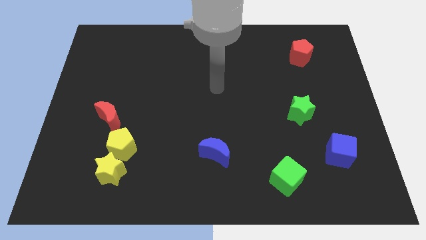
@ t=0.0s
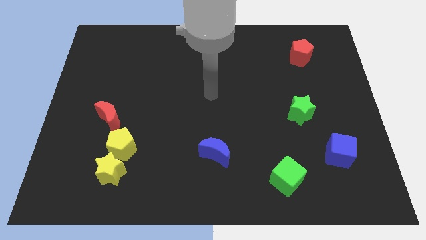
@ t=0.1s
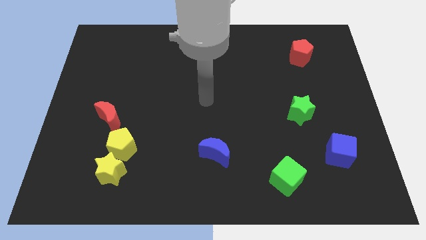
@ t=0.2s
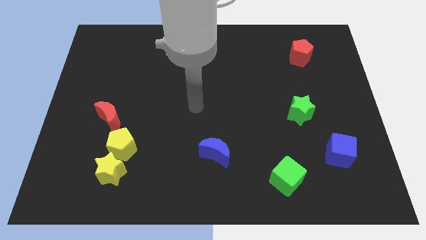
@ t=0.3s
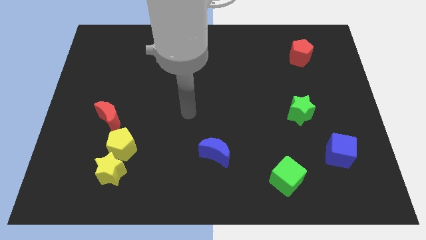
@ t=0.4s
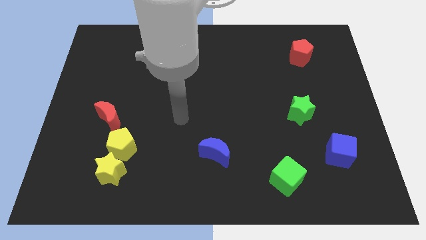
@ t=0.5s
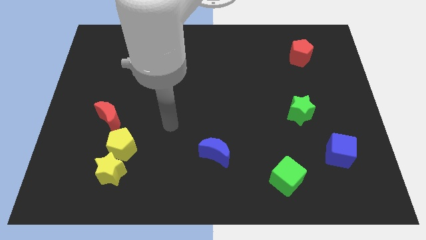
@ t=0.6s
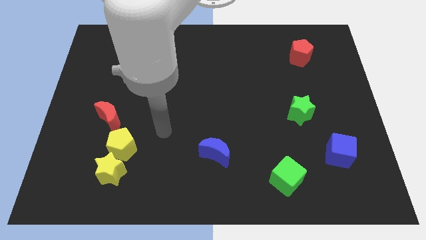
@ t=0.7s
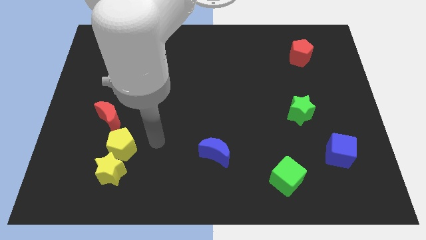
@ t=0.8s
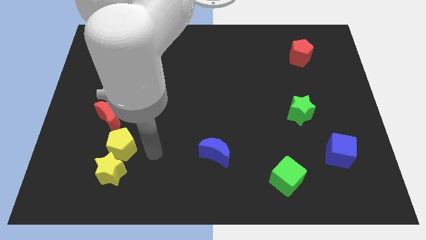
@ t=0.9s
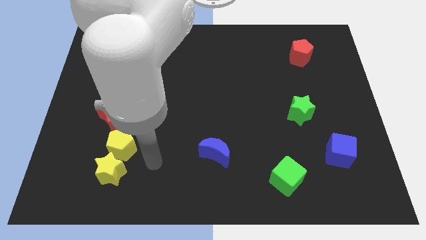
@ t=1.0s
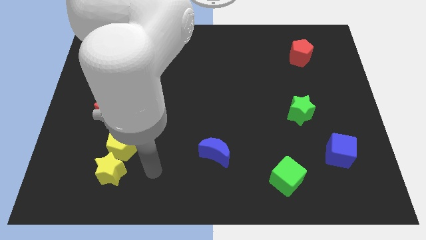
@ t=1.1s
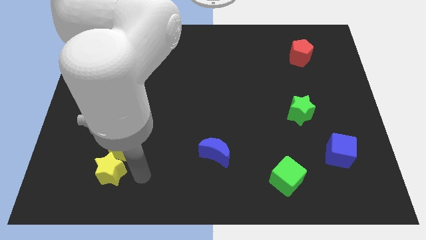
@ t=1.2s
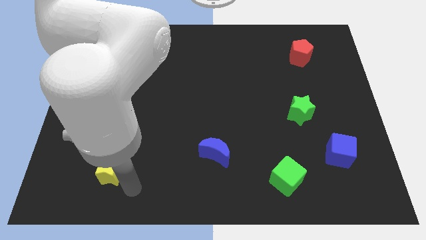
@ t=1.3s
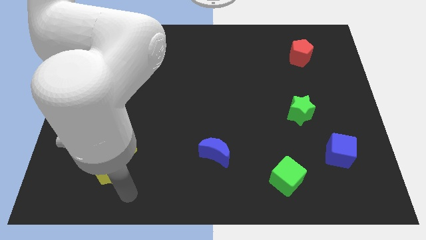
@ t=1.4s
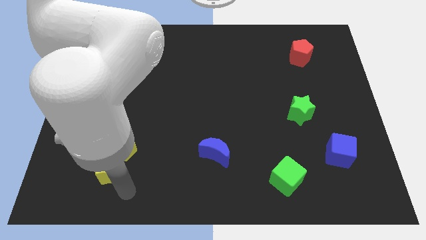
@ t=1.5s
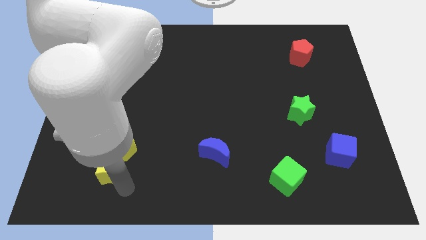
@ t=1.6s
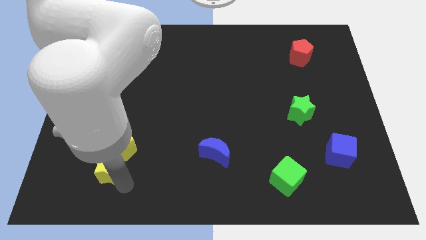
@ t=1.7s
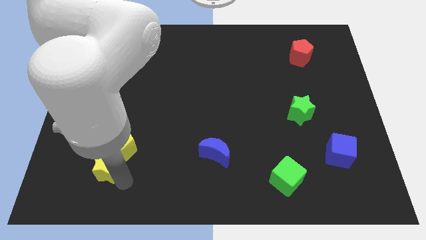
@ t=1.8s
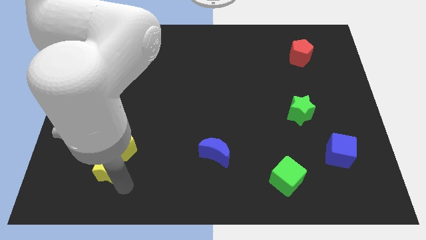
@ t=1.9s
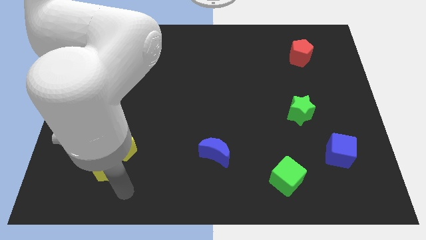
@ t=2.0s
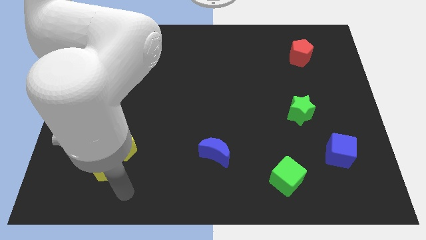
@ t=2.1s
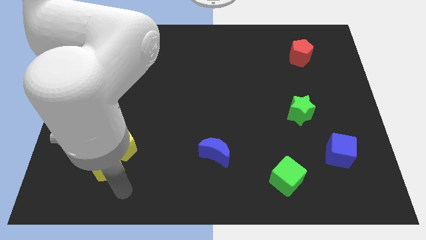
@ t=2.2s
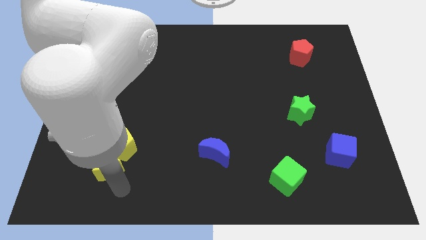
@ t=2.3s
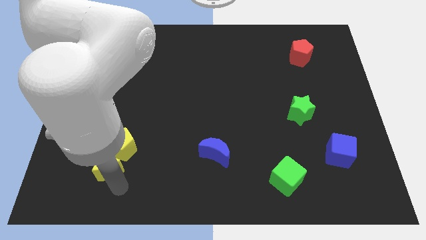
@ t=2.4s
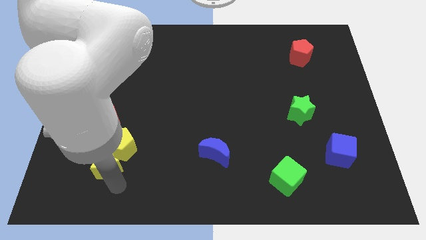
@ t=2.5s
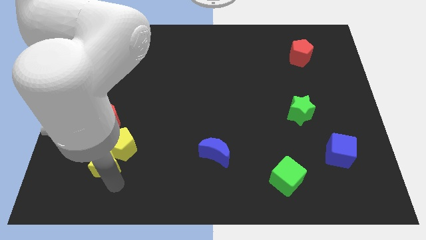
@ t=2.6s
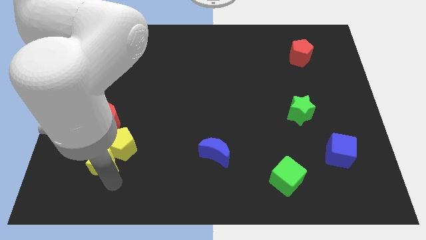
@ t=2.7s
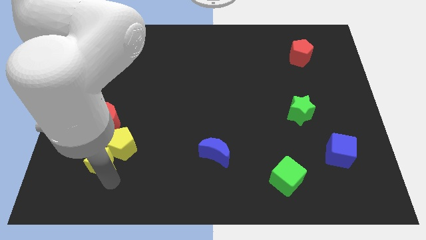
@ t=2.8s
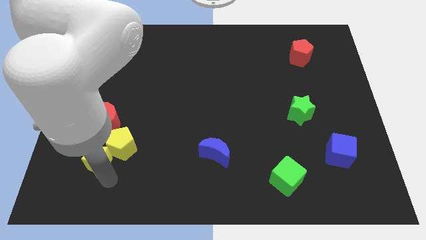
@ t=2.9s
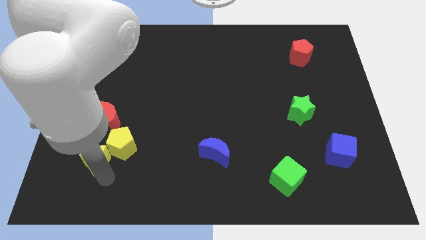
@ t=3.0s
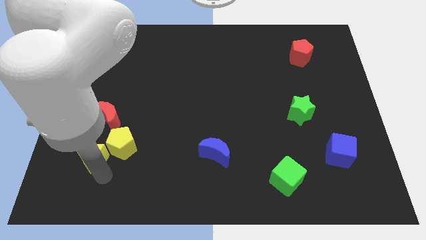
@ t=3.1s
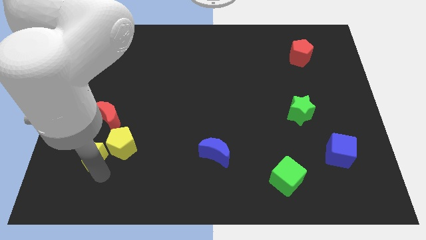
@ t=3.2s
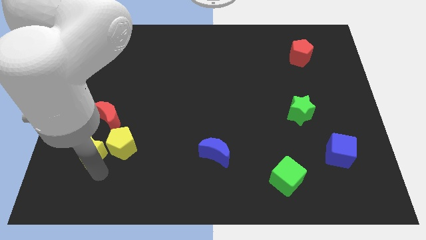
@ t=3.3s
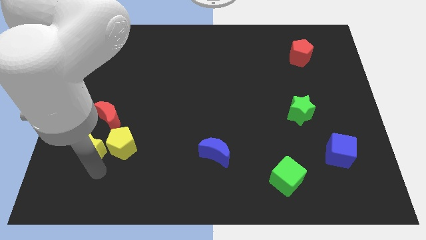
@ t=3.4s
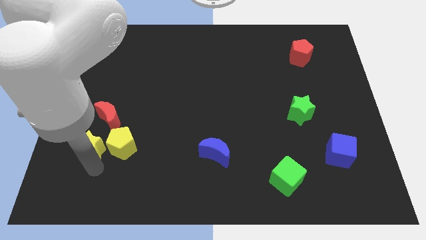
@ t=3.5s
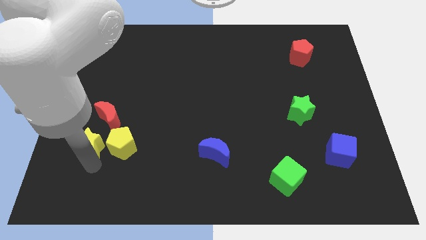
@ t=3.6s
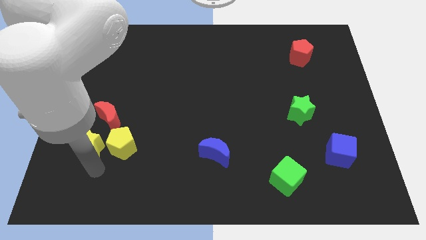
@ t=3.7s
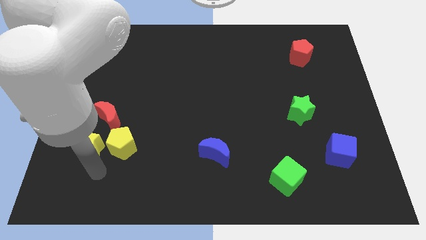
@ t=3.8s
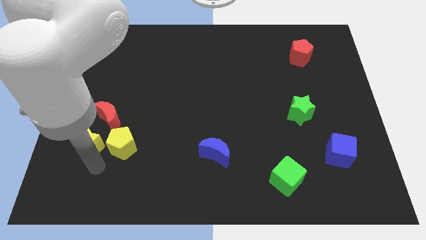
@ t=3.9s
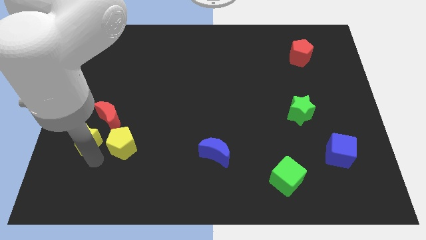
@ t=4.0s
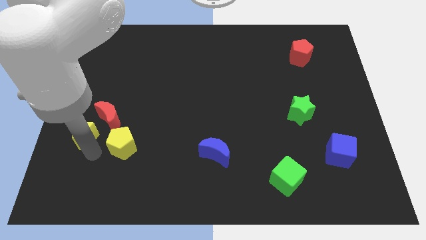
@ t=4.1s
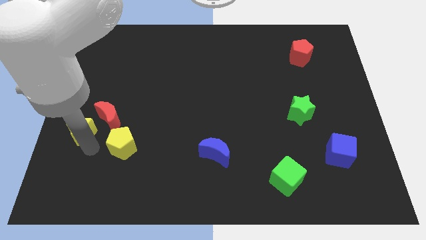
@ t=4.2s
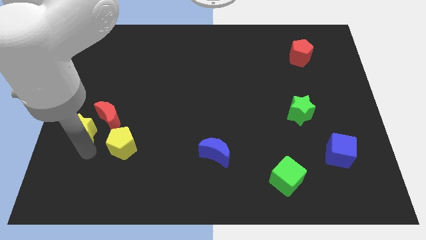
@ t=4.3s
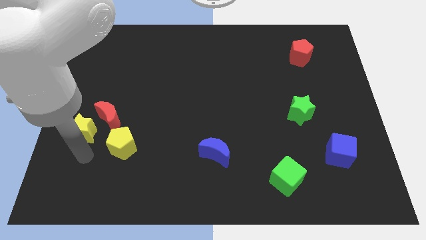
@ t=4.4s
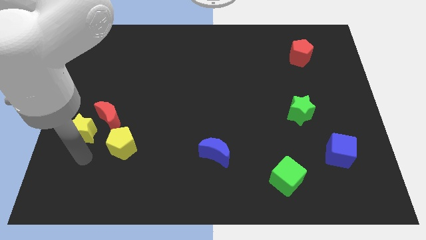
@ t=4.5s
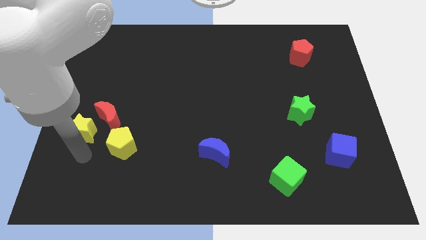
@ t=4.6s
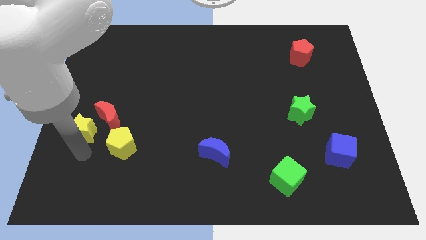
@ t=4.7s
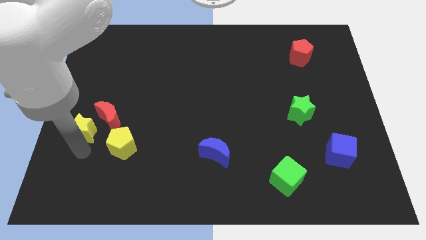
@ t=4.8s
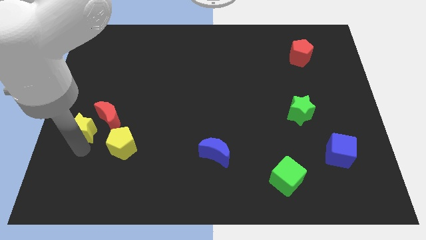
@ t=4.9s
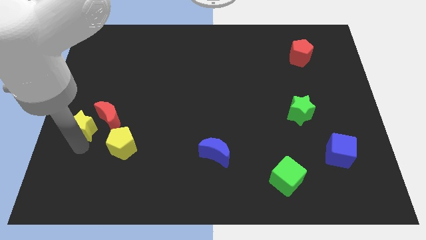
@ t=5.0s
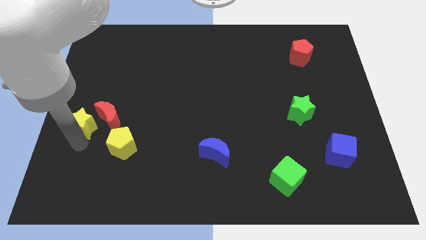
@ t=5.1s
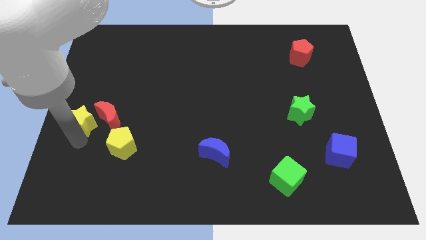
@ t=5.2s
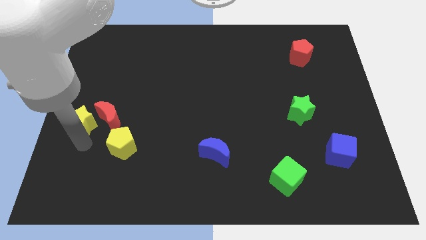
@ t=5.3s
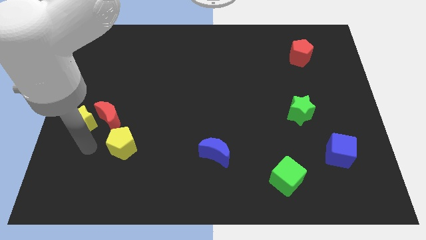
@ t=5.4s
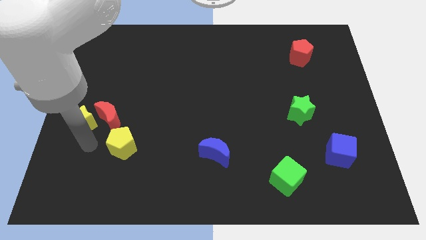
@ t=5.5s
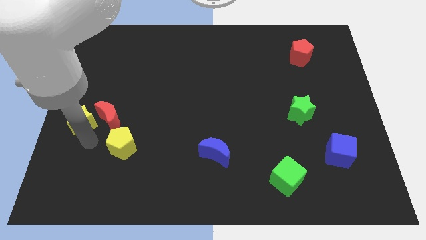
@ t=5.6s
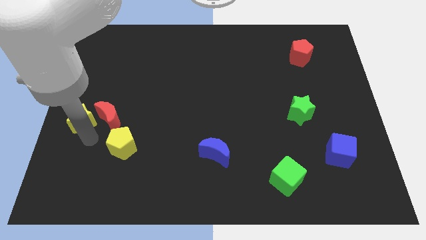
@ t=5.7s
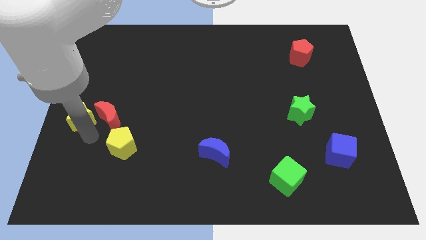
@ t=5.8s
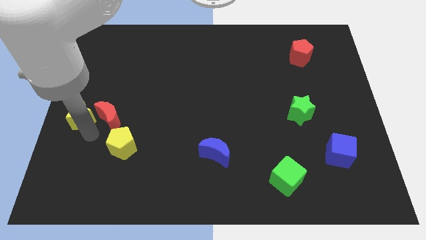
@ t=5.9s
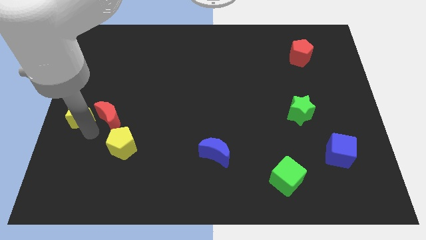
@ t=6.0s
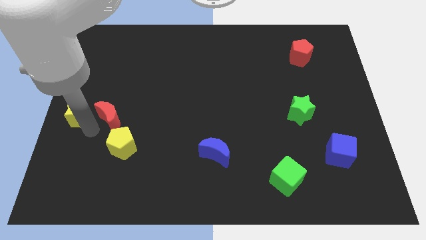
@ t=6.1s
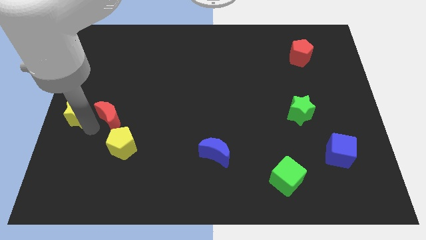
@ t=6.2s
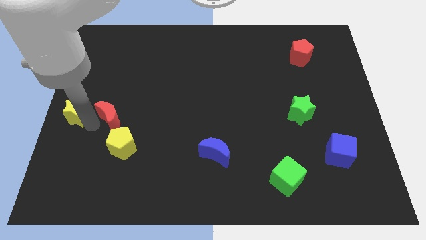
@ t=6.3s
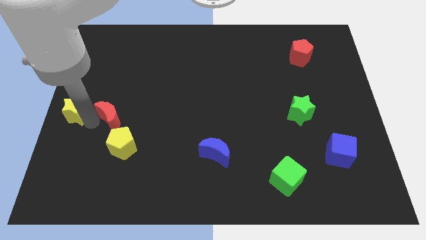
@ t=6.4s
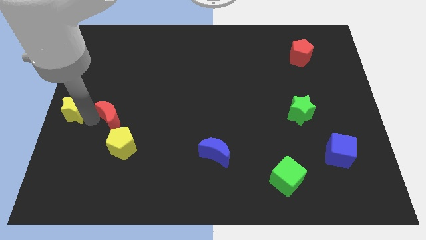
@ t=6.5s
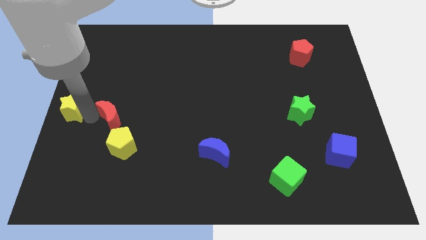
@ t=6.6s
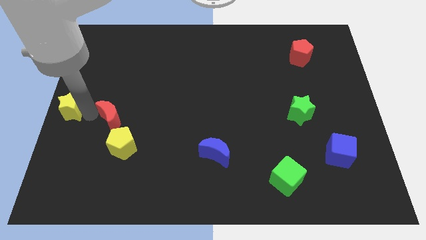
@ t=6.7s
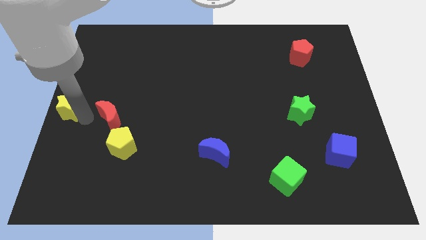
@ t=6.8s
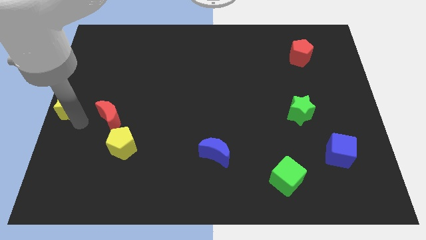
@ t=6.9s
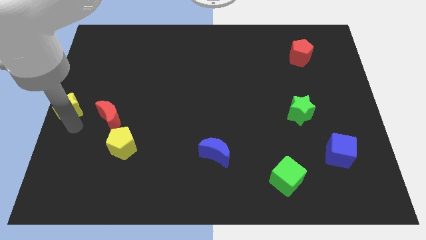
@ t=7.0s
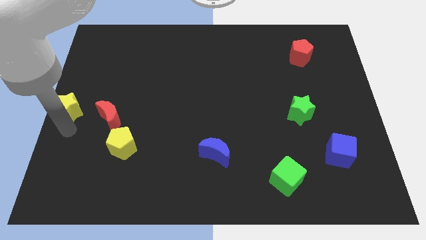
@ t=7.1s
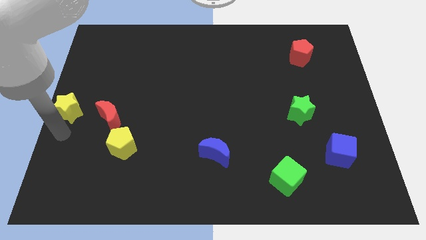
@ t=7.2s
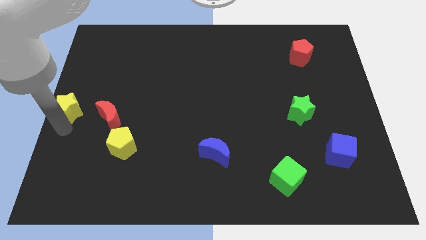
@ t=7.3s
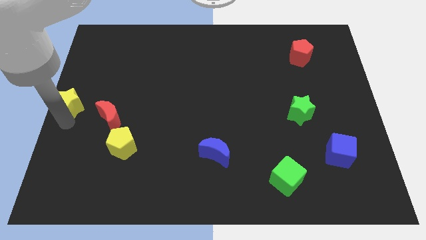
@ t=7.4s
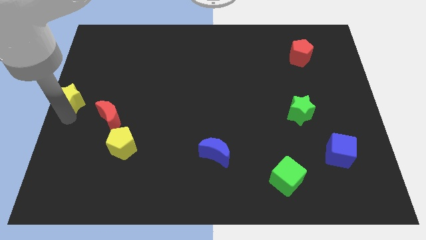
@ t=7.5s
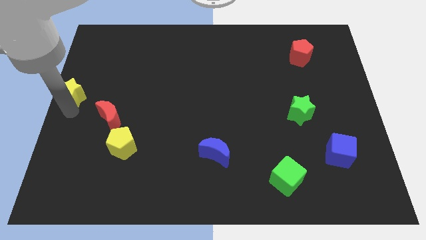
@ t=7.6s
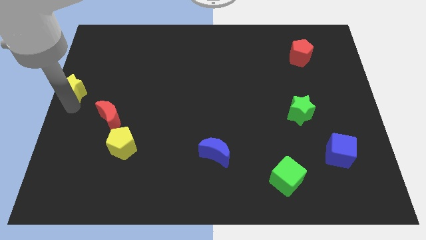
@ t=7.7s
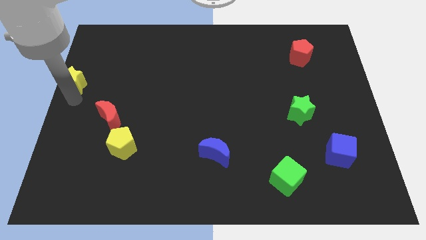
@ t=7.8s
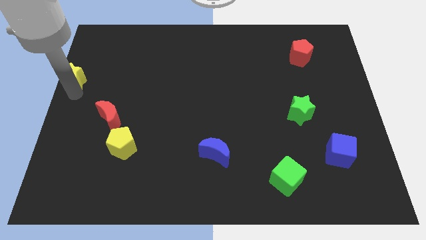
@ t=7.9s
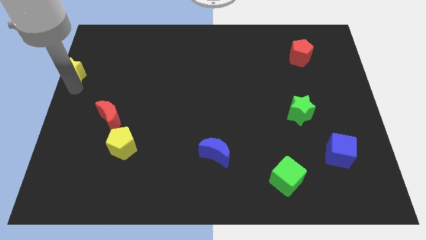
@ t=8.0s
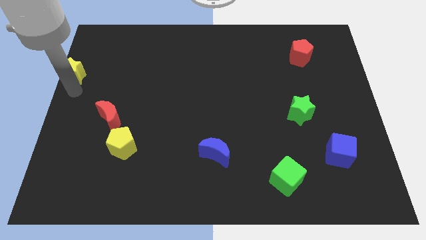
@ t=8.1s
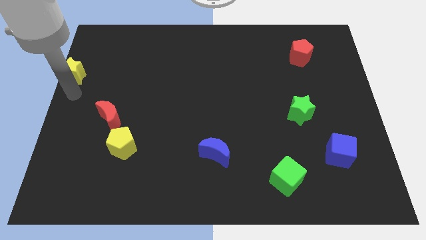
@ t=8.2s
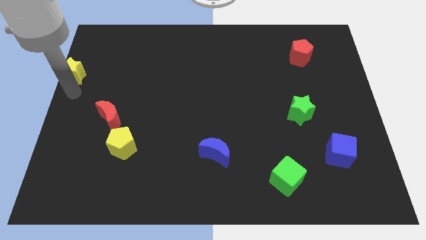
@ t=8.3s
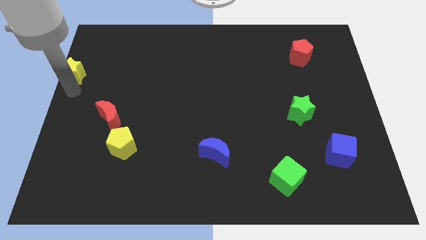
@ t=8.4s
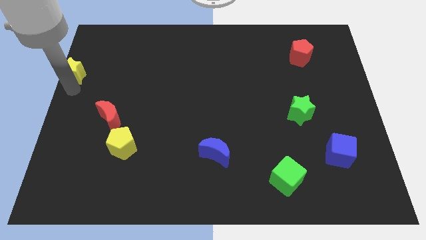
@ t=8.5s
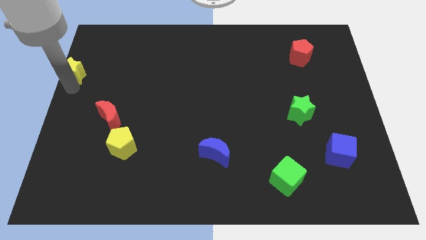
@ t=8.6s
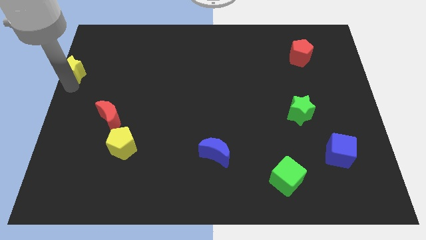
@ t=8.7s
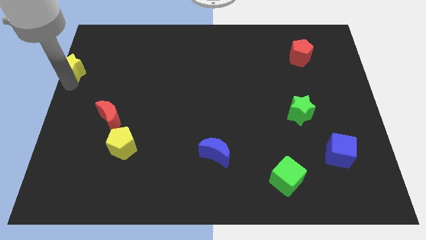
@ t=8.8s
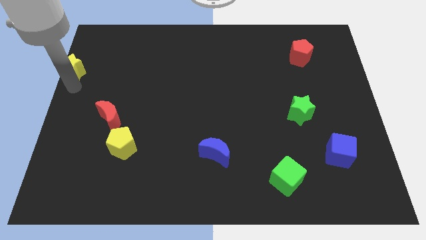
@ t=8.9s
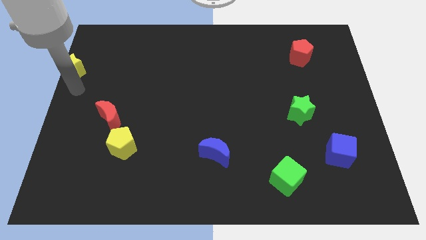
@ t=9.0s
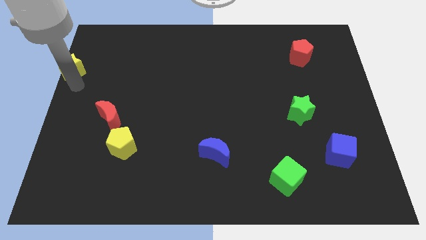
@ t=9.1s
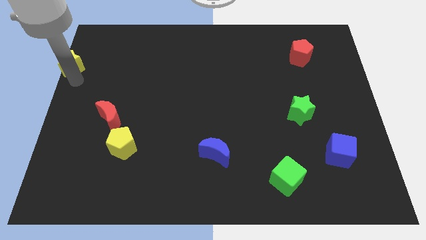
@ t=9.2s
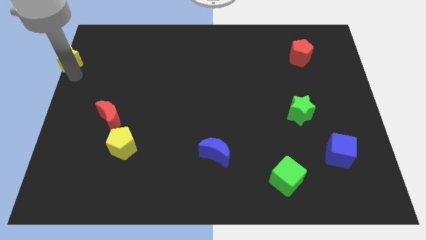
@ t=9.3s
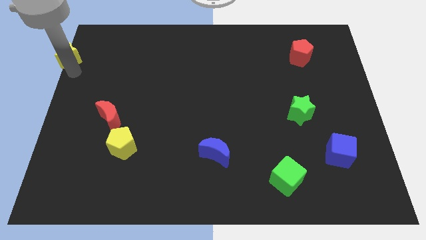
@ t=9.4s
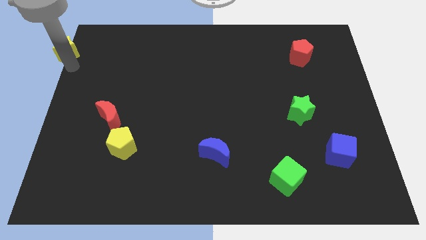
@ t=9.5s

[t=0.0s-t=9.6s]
push the yellow star to the upper left corner
